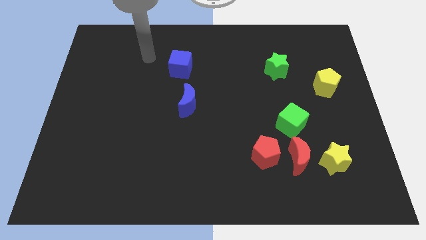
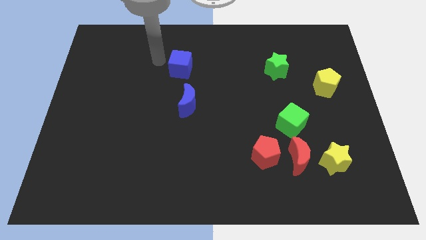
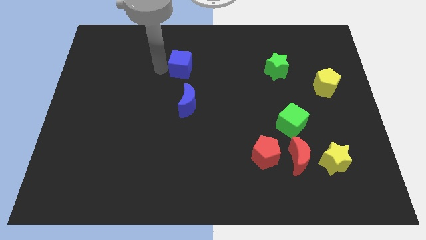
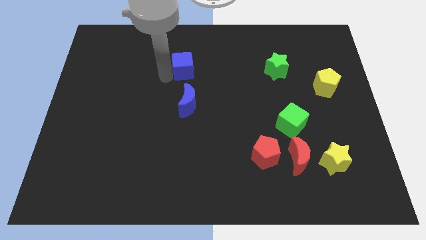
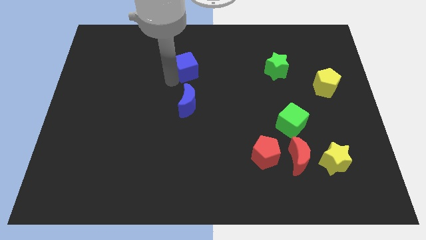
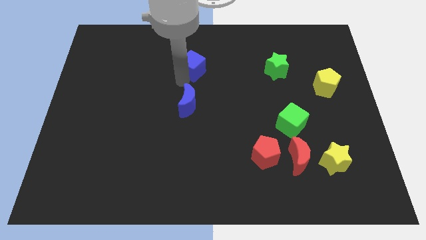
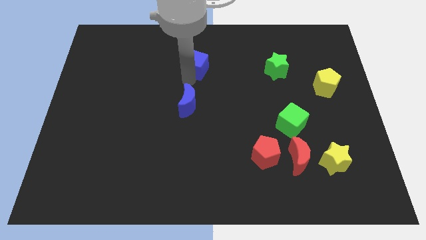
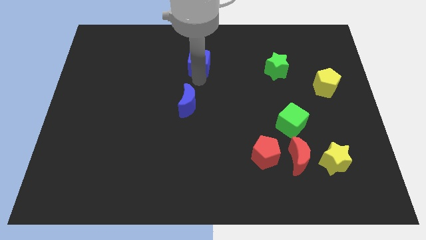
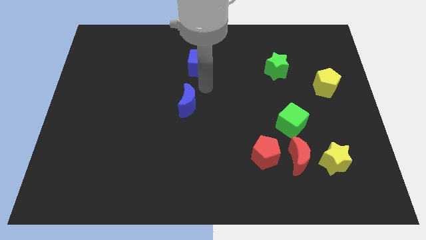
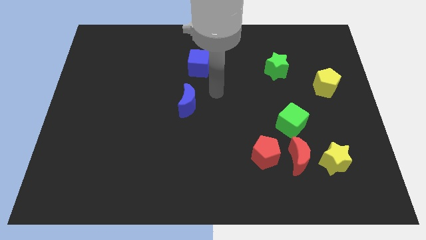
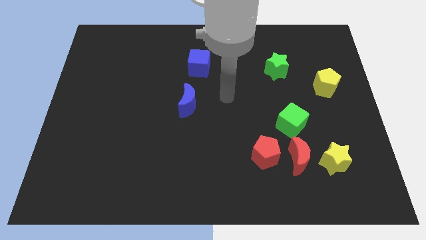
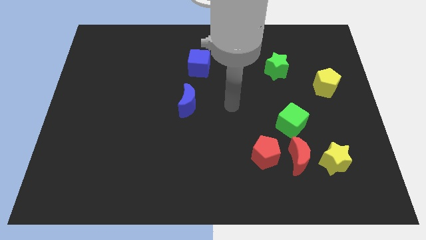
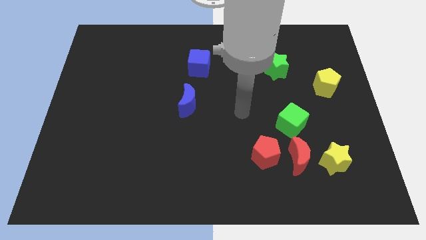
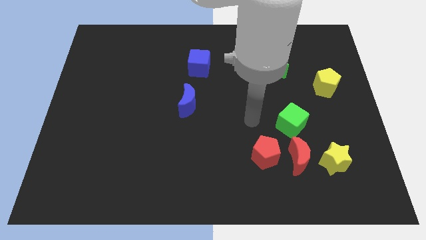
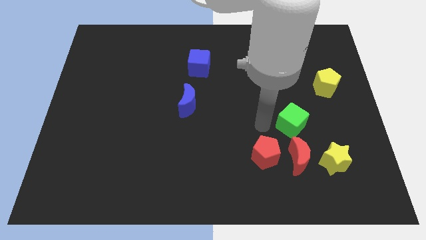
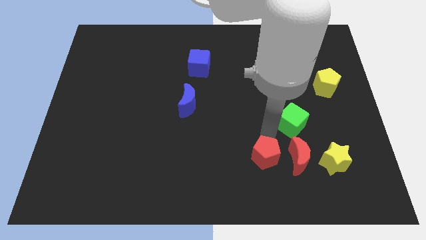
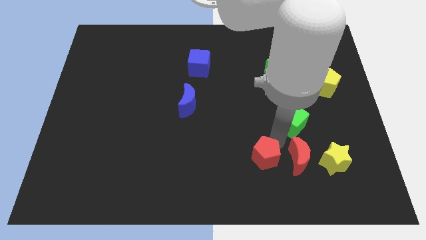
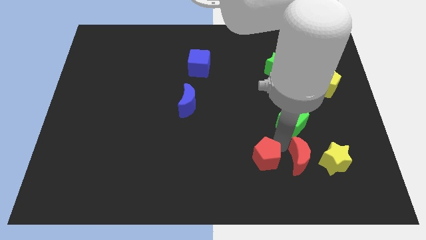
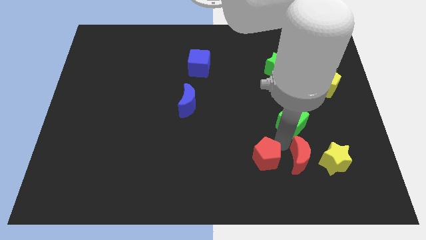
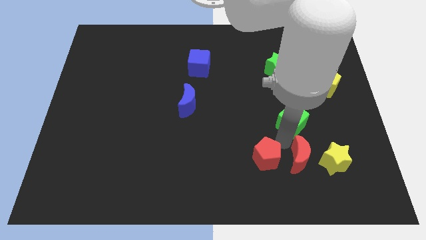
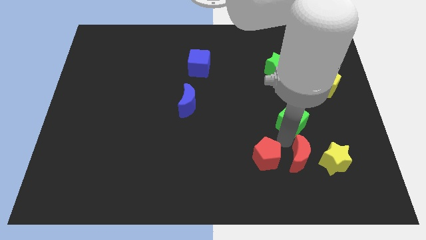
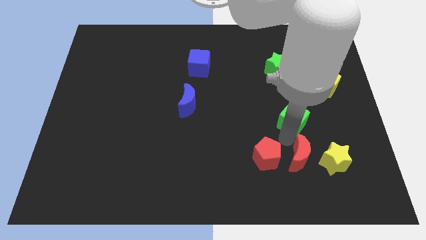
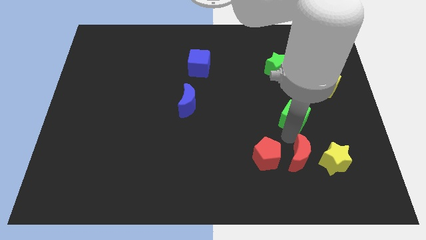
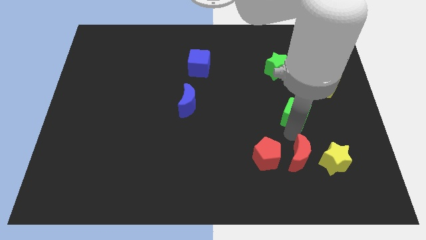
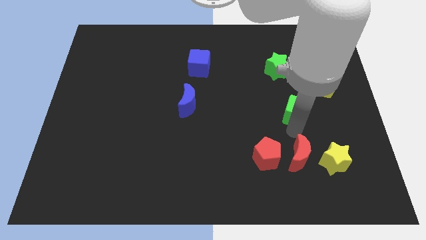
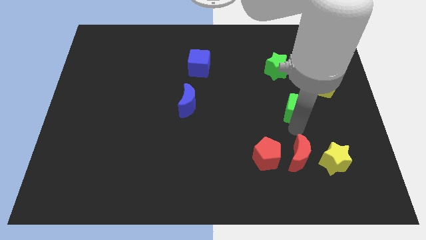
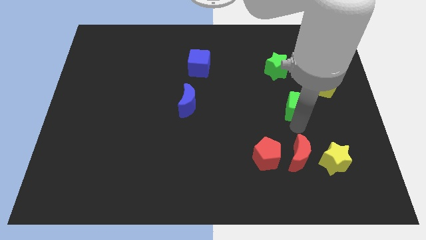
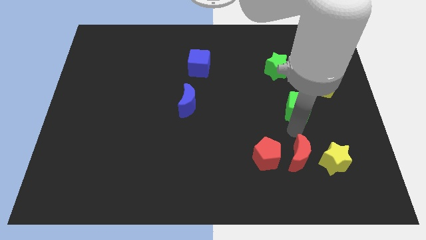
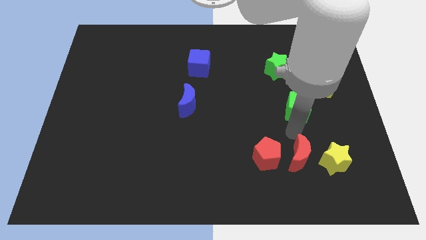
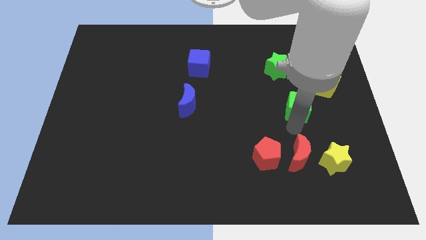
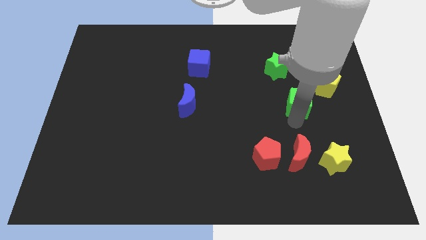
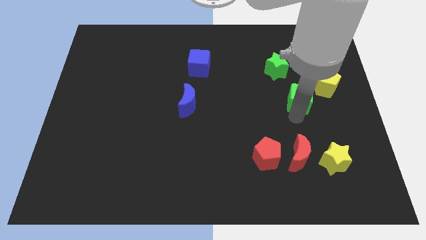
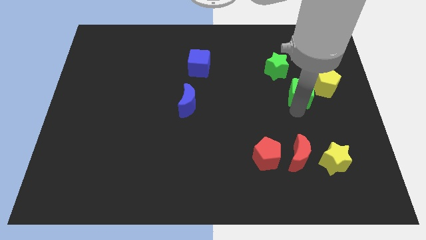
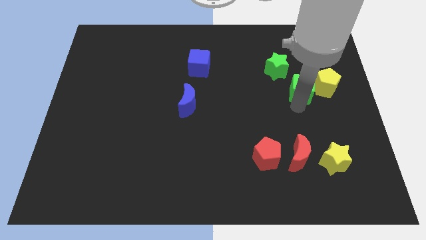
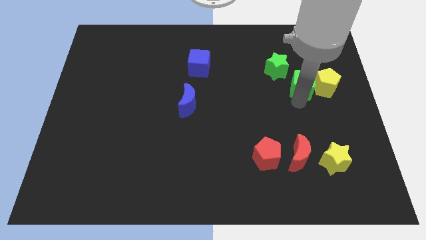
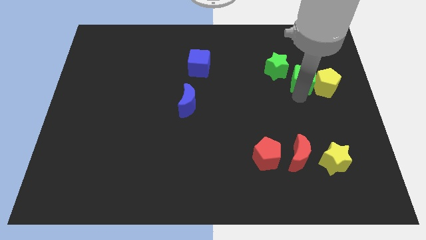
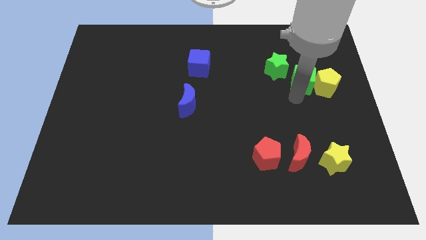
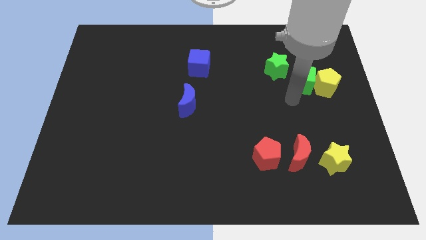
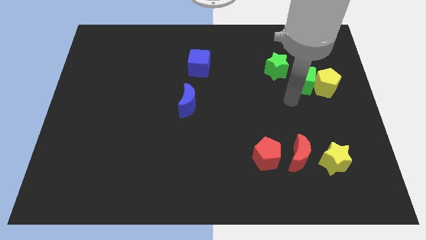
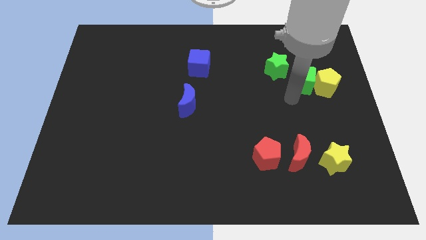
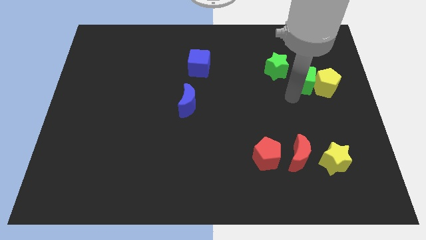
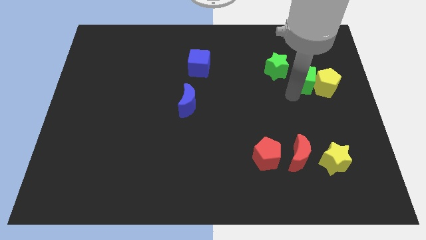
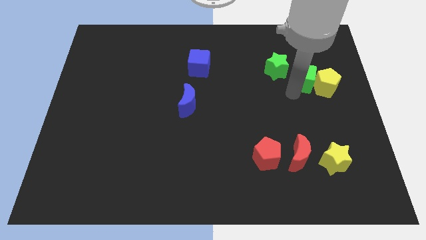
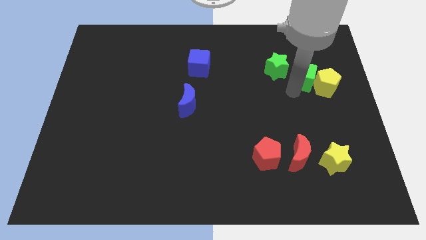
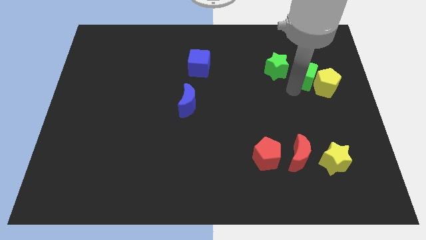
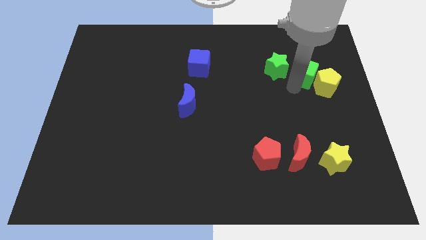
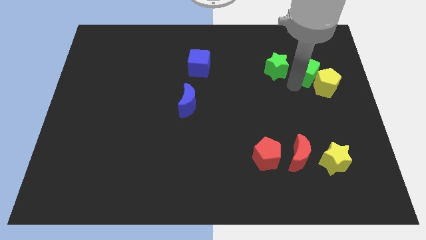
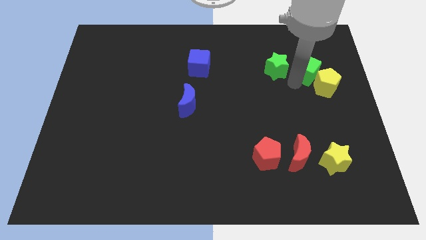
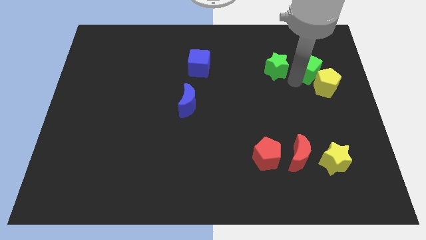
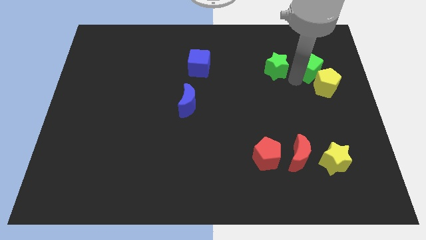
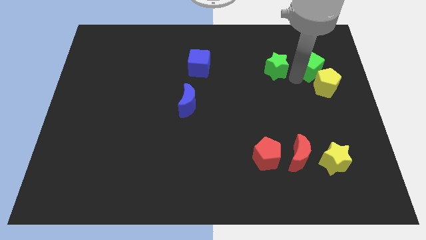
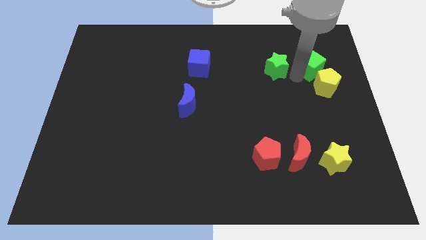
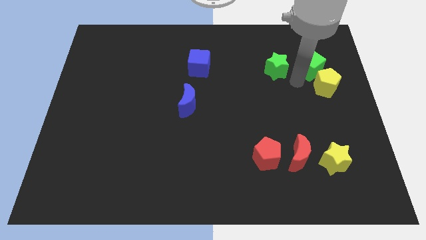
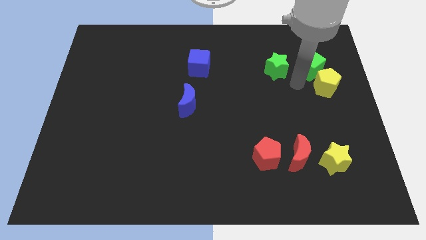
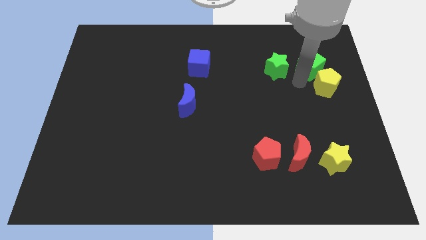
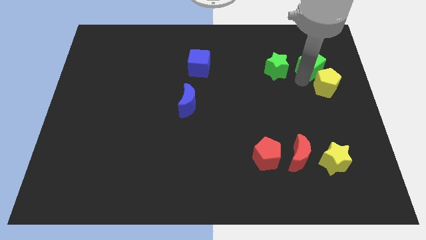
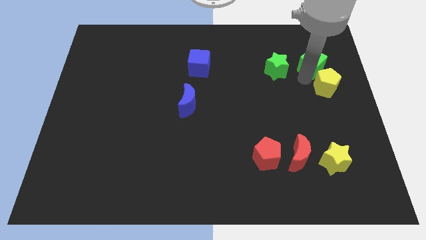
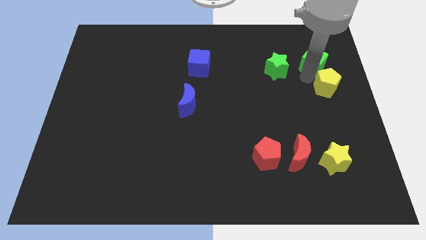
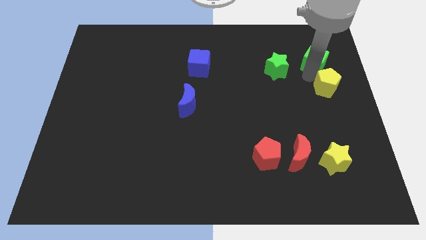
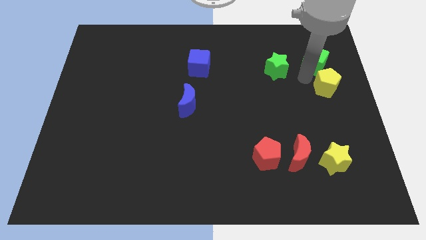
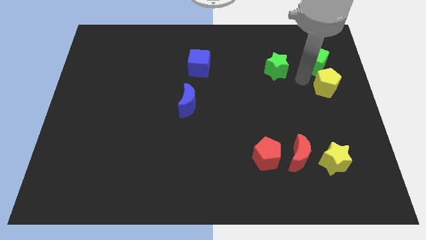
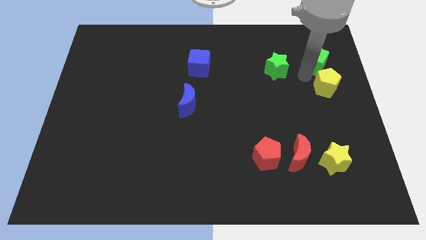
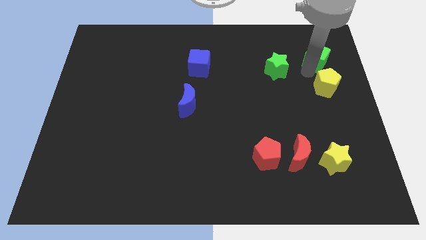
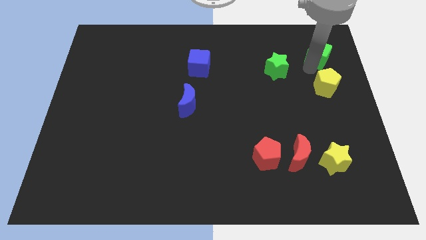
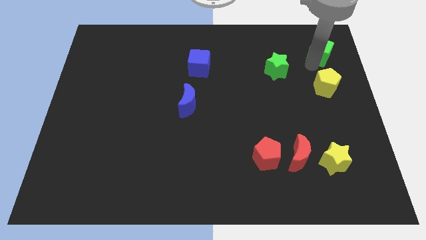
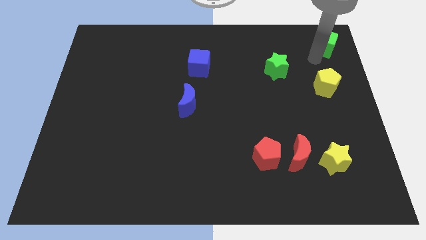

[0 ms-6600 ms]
put the green cube to the top right corner
